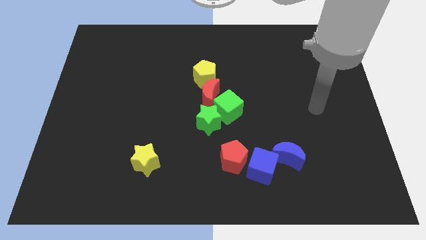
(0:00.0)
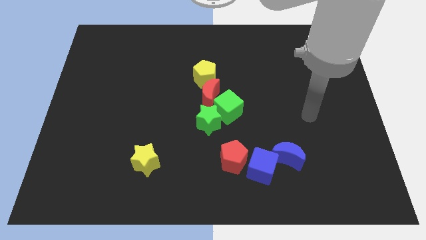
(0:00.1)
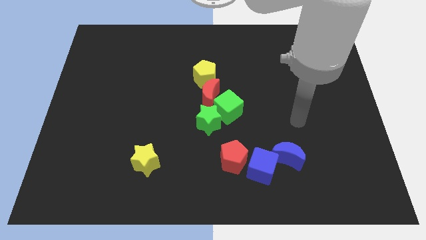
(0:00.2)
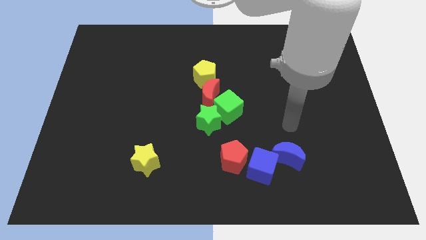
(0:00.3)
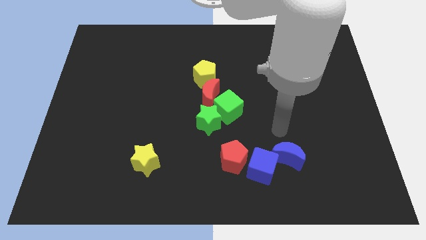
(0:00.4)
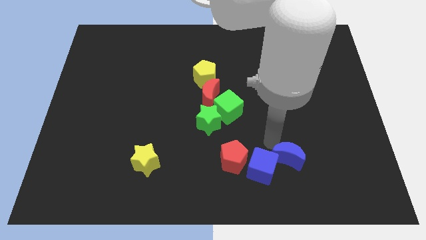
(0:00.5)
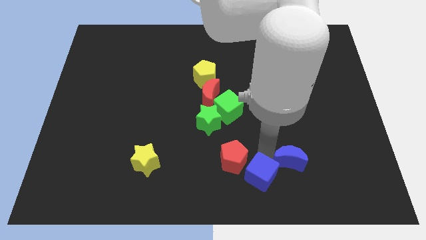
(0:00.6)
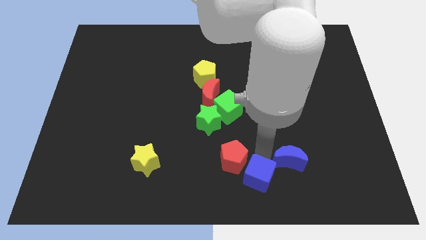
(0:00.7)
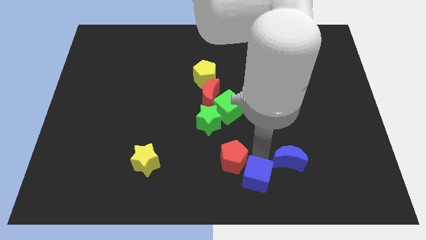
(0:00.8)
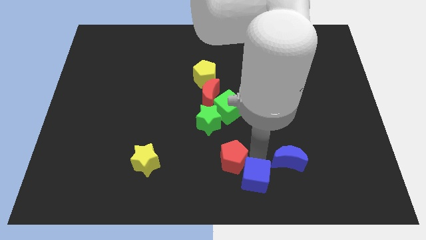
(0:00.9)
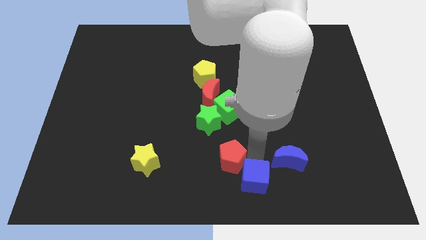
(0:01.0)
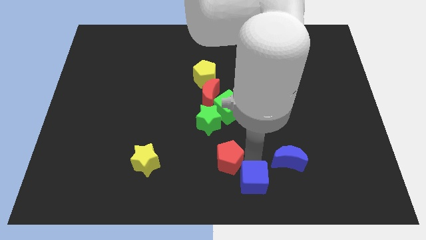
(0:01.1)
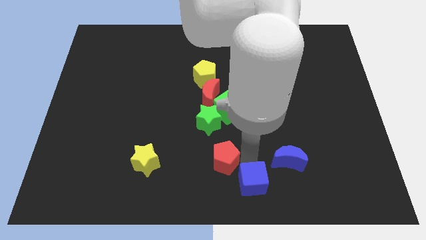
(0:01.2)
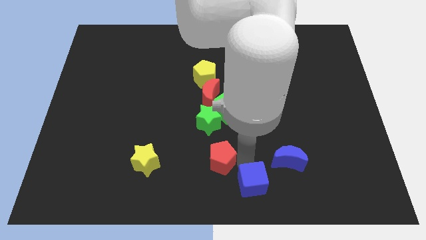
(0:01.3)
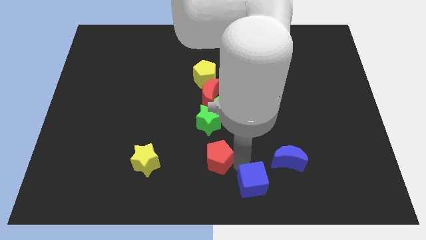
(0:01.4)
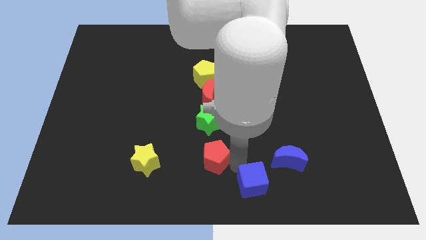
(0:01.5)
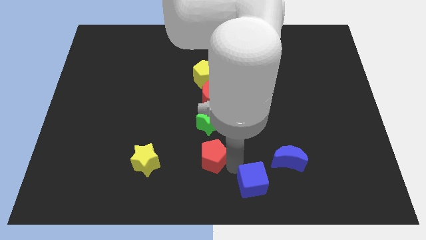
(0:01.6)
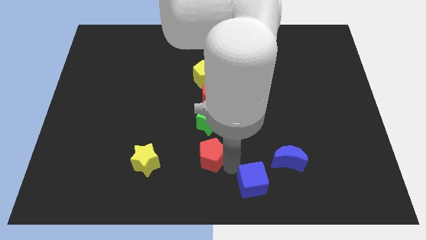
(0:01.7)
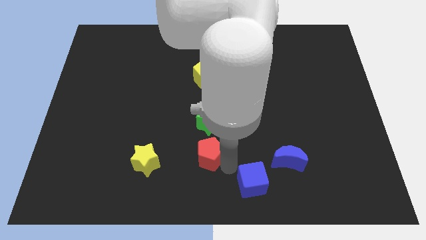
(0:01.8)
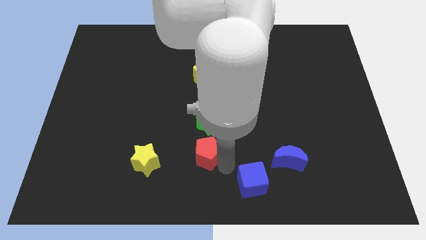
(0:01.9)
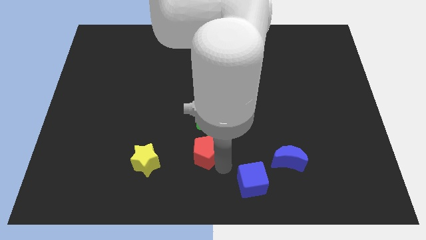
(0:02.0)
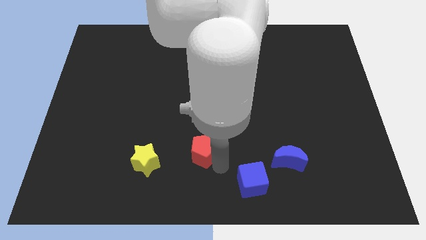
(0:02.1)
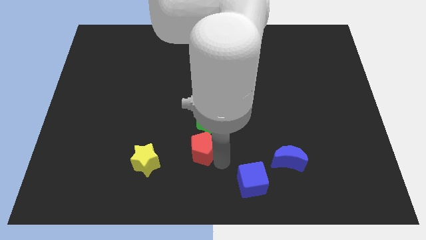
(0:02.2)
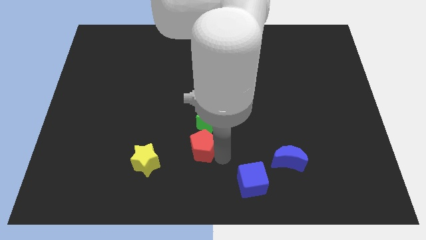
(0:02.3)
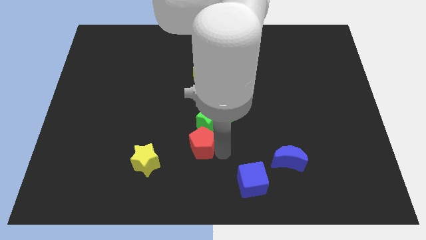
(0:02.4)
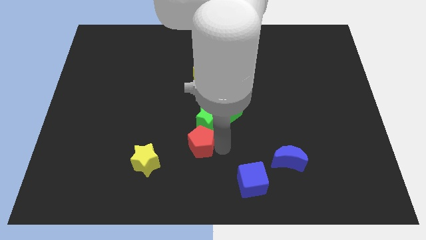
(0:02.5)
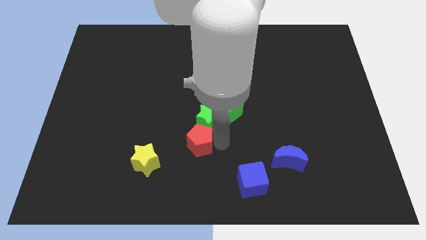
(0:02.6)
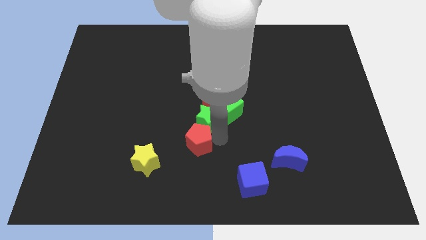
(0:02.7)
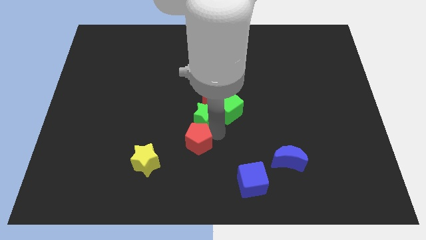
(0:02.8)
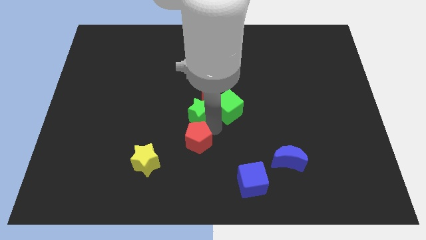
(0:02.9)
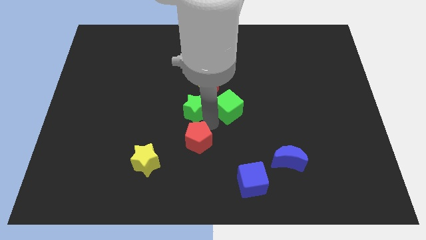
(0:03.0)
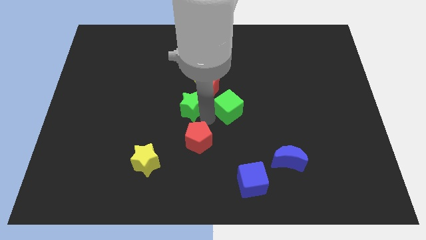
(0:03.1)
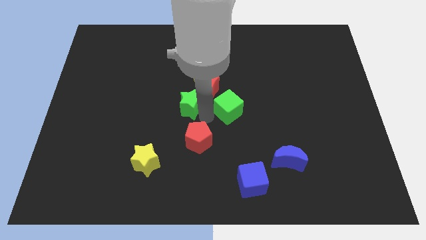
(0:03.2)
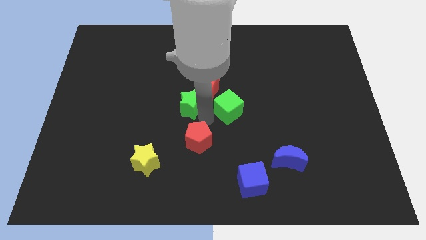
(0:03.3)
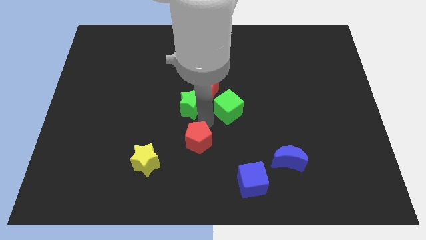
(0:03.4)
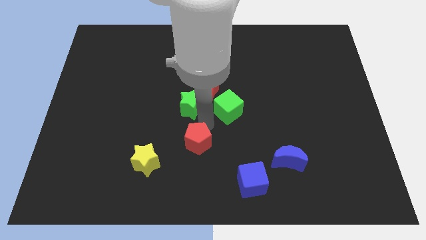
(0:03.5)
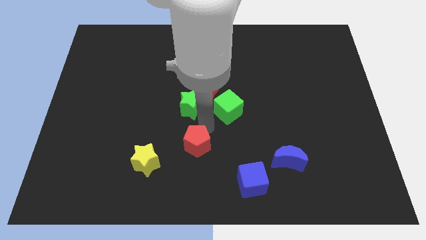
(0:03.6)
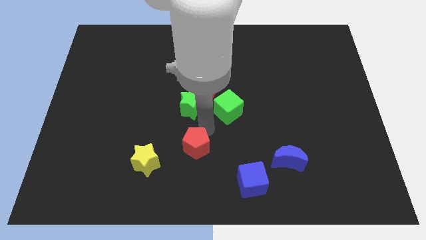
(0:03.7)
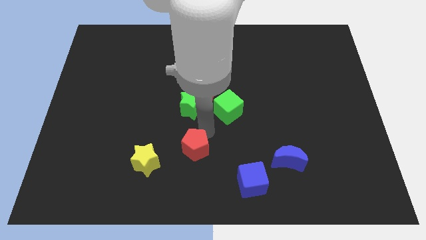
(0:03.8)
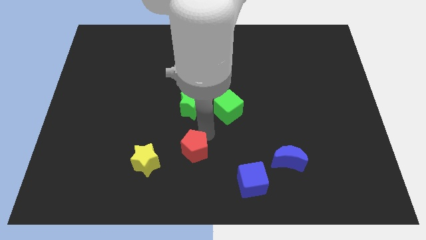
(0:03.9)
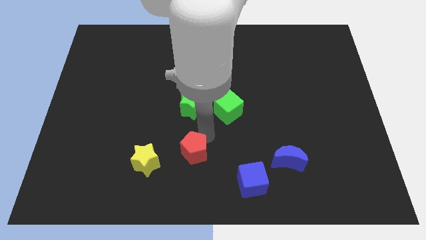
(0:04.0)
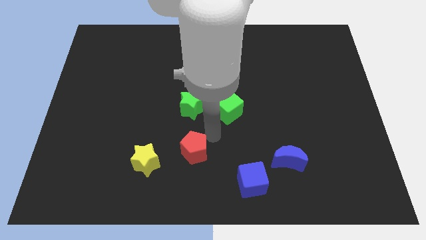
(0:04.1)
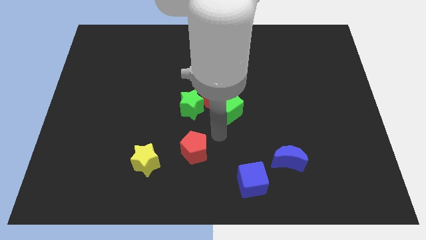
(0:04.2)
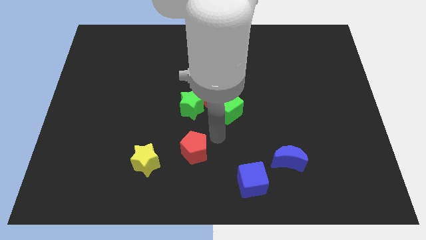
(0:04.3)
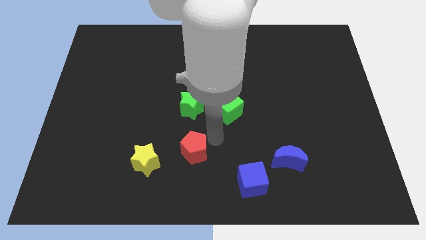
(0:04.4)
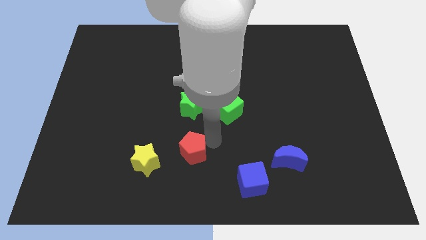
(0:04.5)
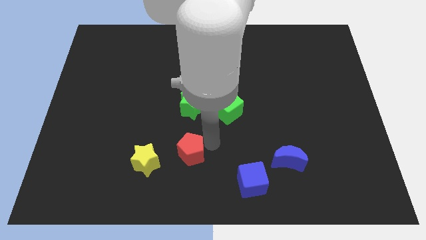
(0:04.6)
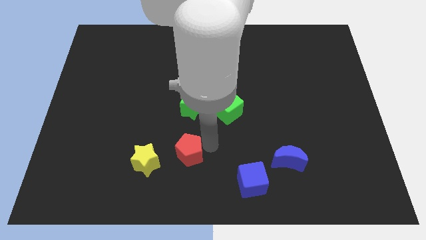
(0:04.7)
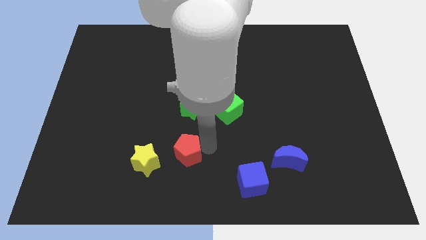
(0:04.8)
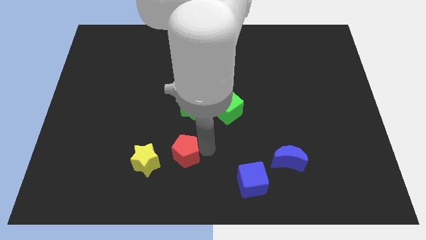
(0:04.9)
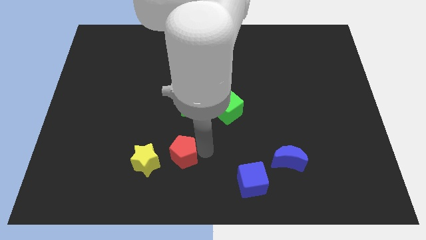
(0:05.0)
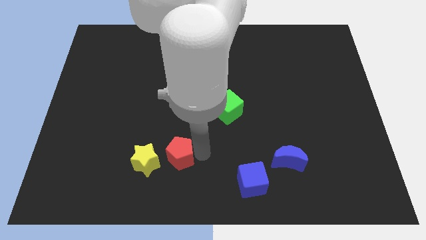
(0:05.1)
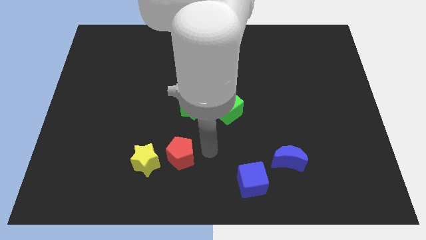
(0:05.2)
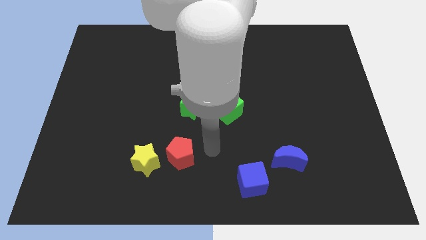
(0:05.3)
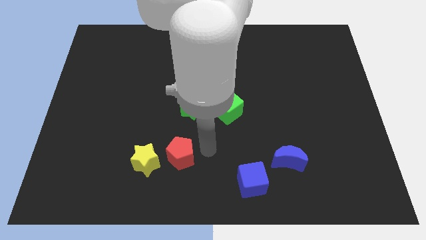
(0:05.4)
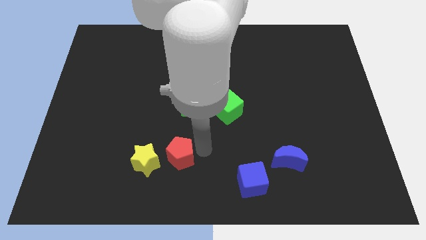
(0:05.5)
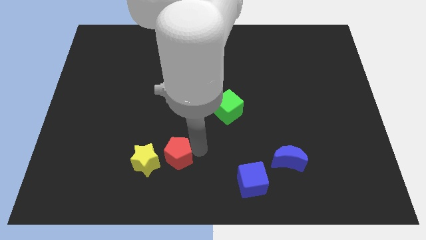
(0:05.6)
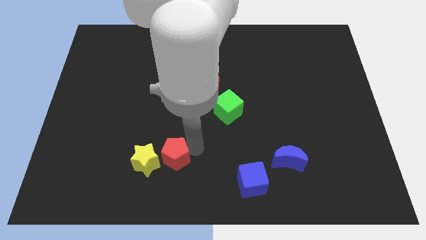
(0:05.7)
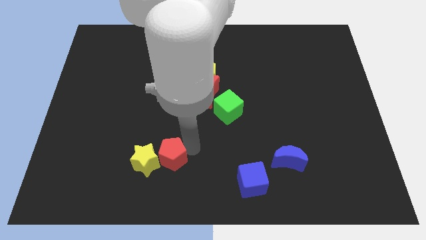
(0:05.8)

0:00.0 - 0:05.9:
move the red pentagon towards the yellow star

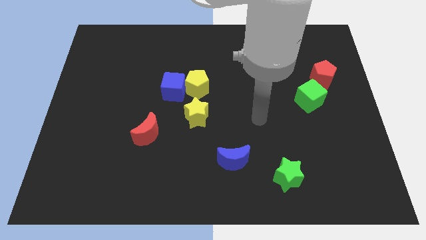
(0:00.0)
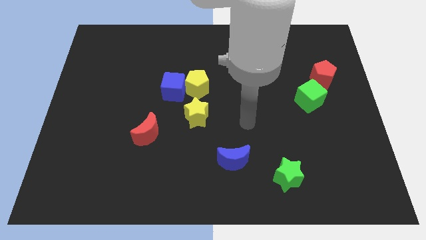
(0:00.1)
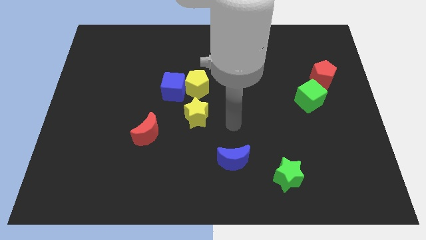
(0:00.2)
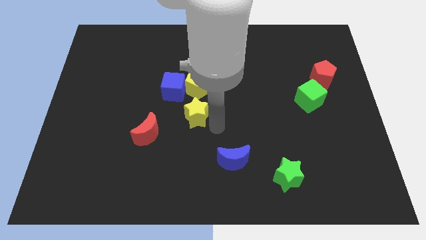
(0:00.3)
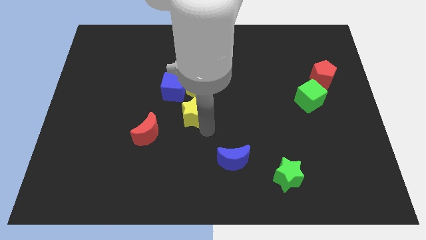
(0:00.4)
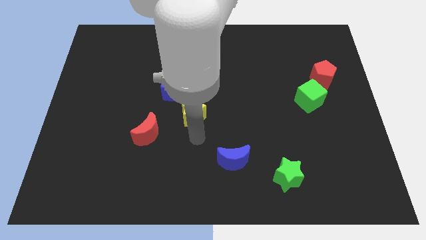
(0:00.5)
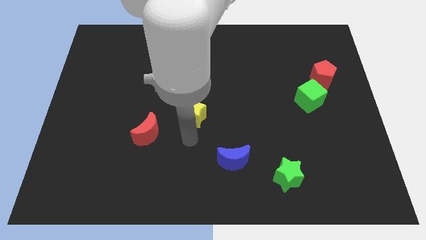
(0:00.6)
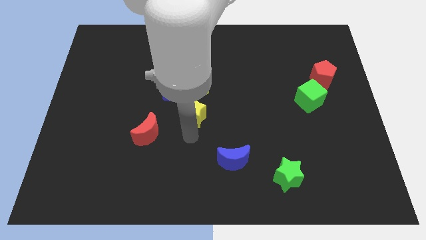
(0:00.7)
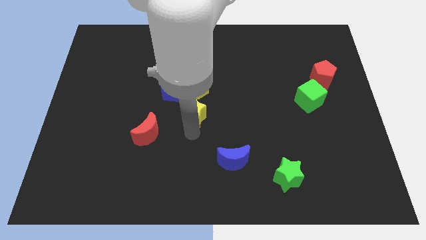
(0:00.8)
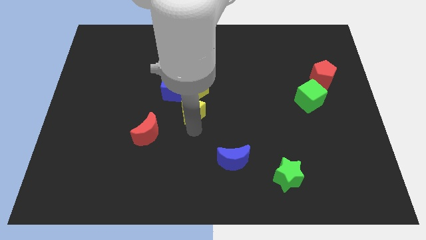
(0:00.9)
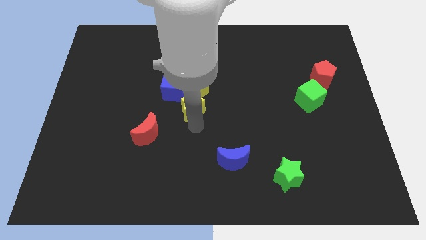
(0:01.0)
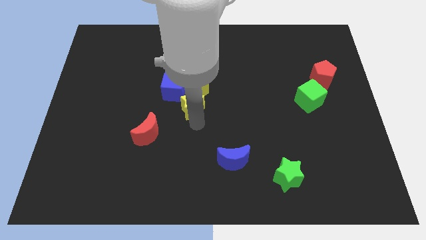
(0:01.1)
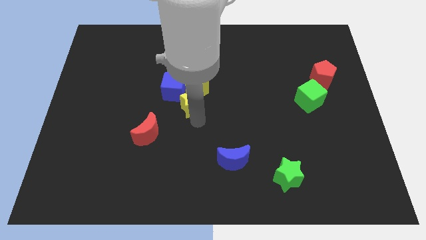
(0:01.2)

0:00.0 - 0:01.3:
push the yellow star close to the yellow pentagon
